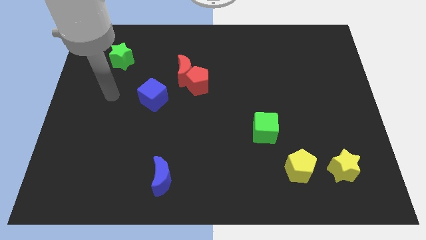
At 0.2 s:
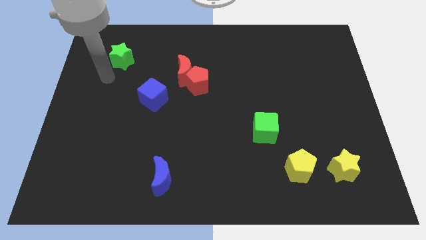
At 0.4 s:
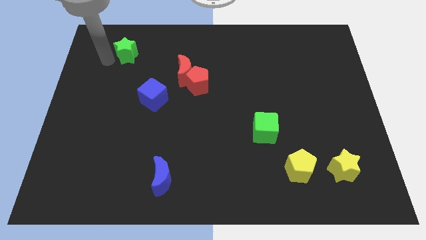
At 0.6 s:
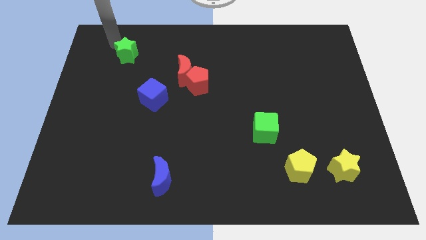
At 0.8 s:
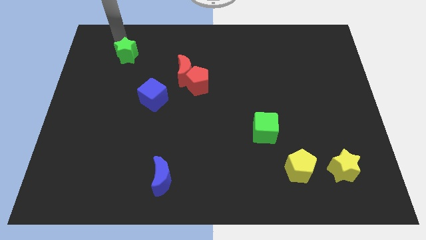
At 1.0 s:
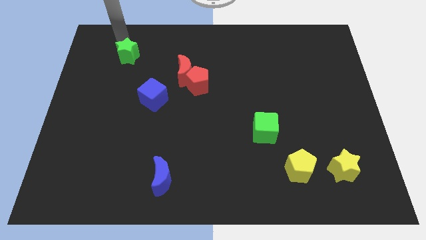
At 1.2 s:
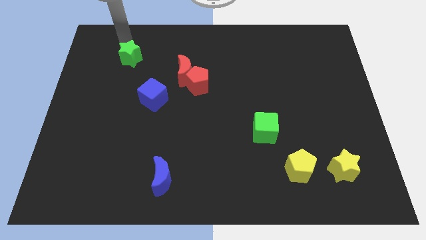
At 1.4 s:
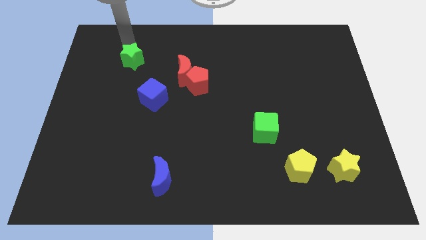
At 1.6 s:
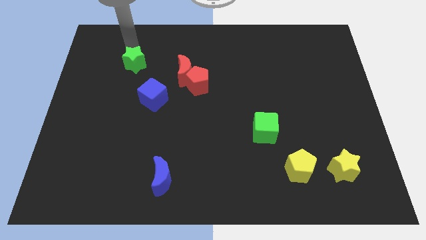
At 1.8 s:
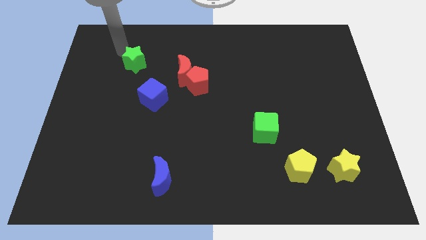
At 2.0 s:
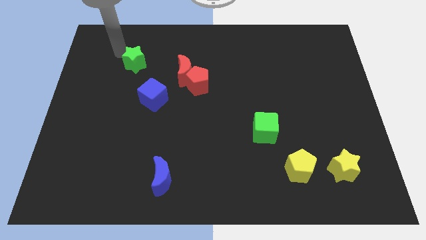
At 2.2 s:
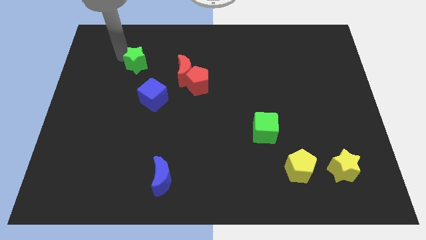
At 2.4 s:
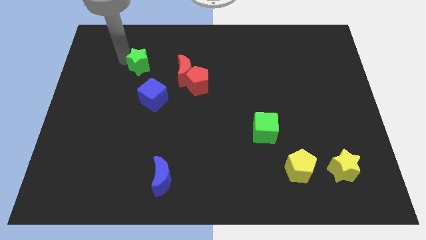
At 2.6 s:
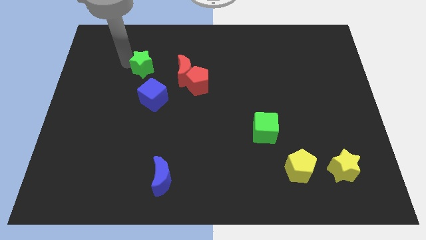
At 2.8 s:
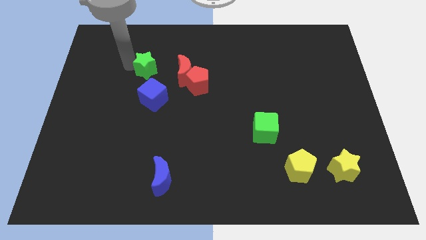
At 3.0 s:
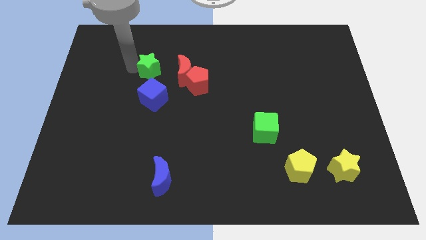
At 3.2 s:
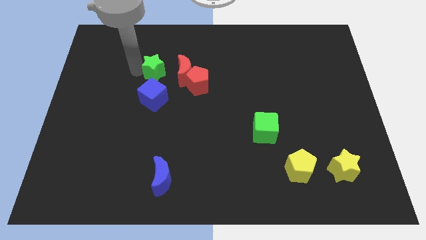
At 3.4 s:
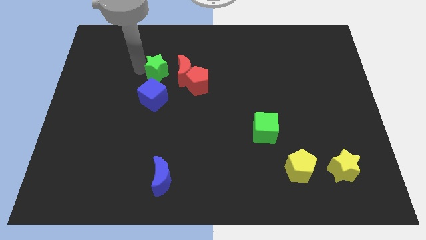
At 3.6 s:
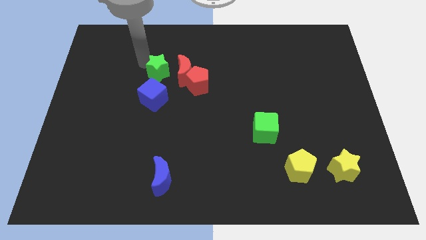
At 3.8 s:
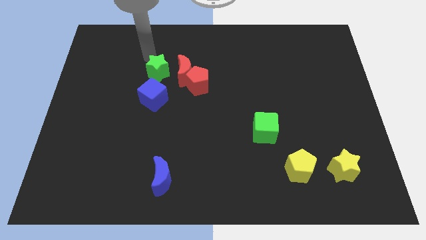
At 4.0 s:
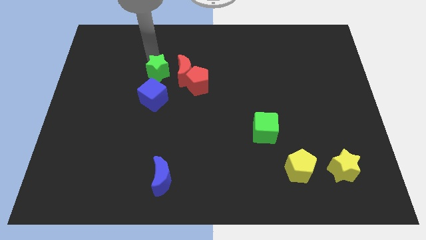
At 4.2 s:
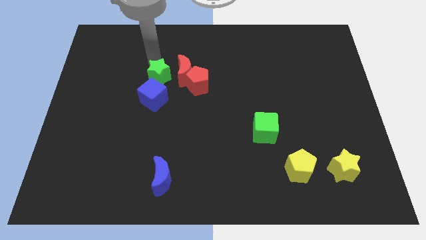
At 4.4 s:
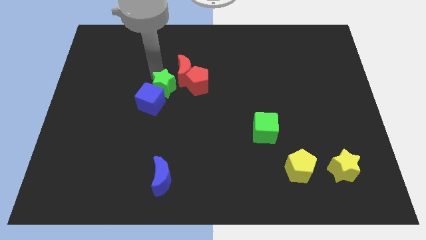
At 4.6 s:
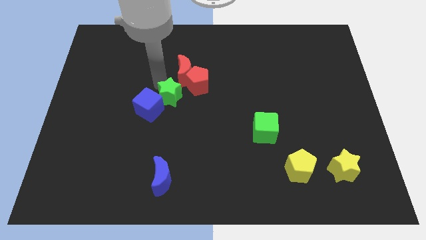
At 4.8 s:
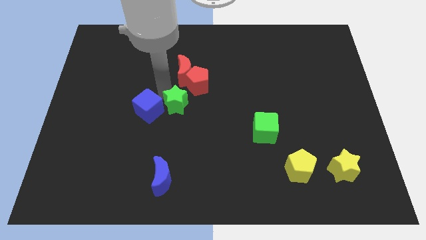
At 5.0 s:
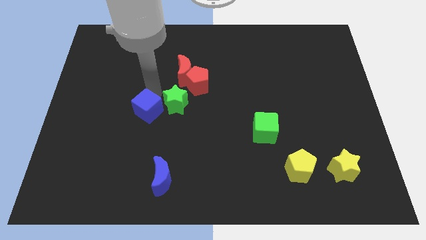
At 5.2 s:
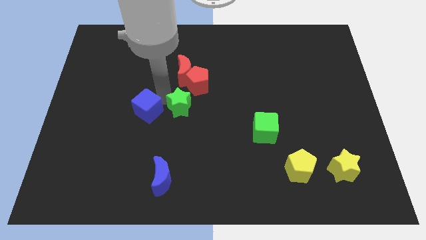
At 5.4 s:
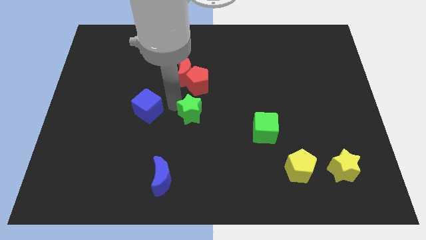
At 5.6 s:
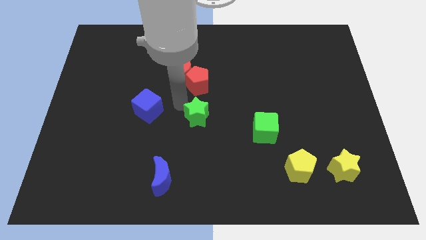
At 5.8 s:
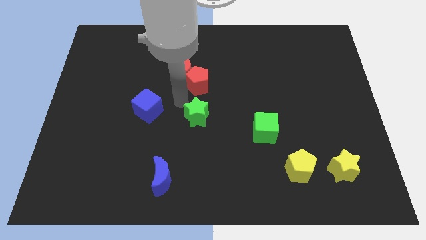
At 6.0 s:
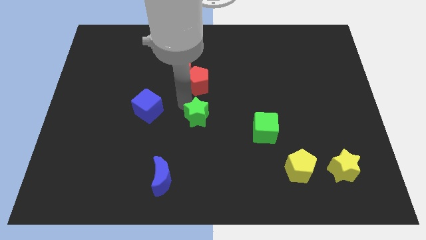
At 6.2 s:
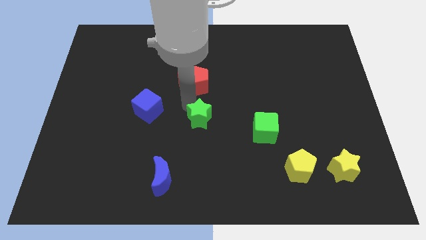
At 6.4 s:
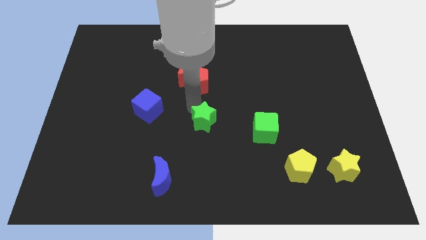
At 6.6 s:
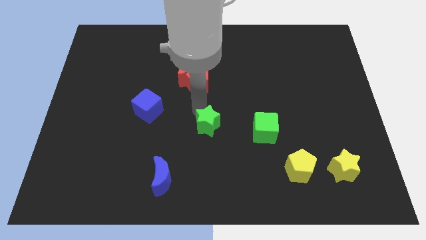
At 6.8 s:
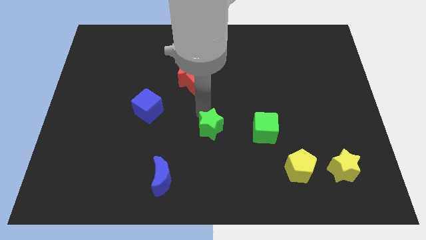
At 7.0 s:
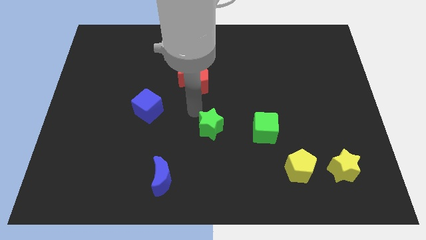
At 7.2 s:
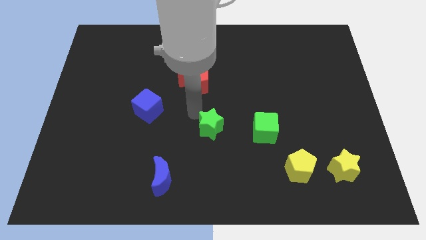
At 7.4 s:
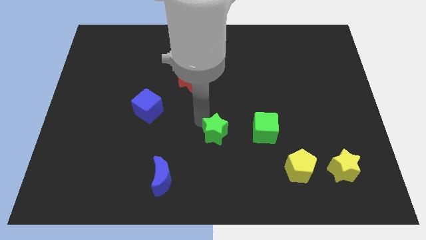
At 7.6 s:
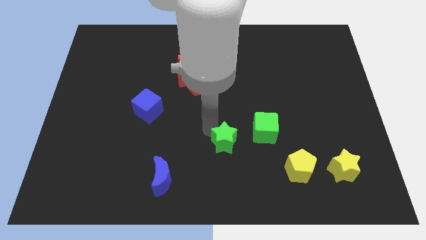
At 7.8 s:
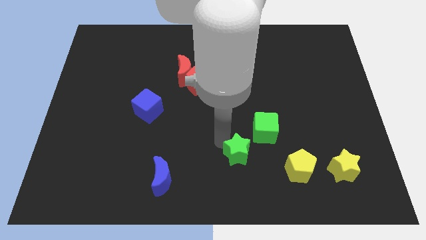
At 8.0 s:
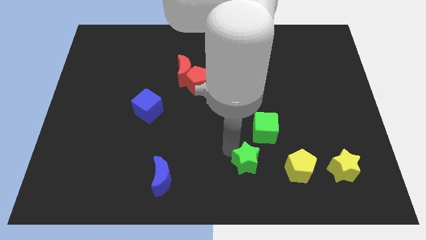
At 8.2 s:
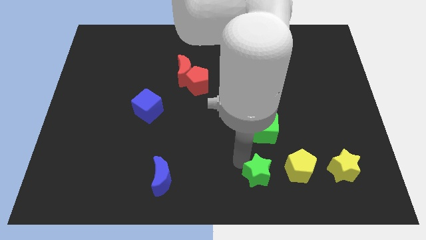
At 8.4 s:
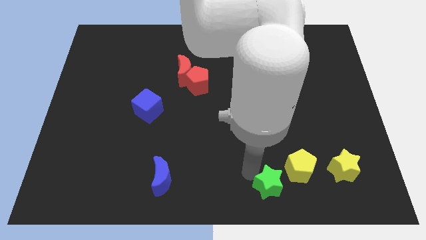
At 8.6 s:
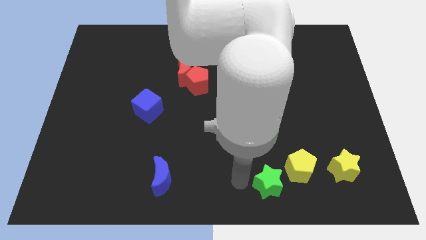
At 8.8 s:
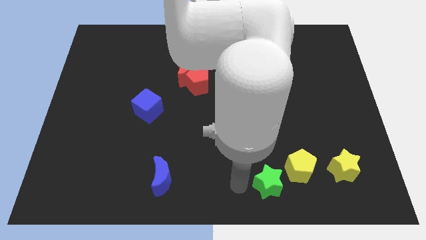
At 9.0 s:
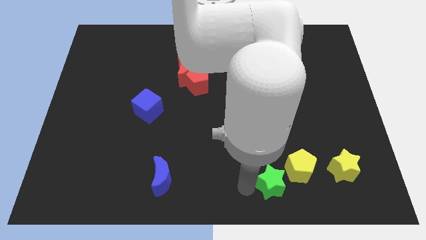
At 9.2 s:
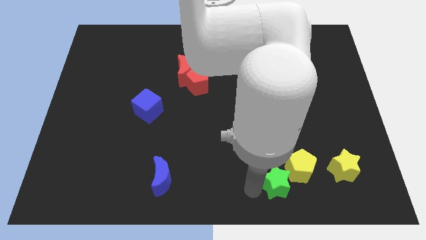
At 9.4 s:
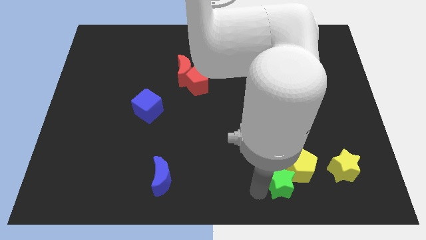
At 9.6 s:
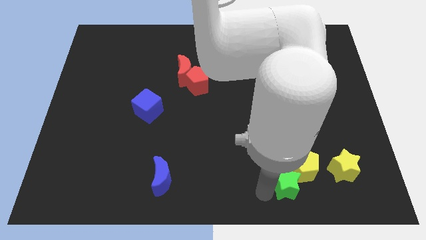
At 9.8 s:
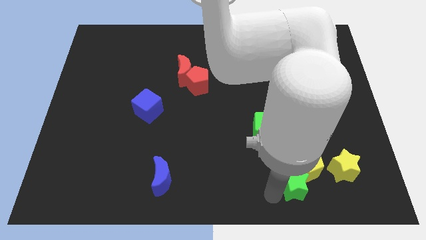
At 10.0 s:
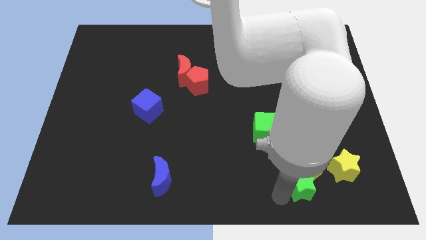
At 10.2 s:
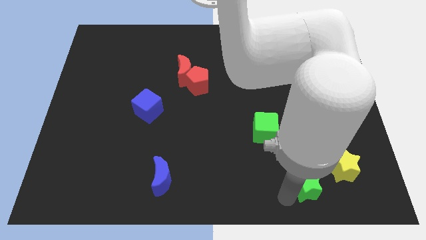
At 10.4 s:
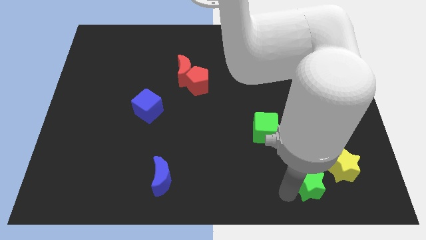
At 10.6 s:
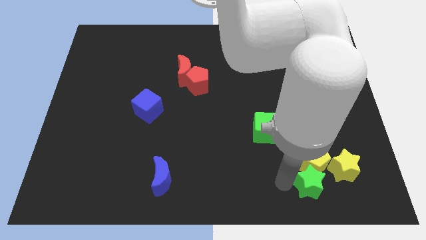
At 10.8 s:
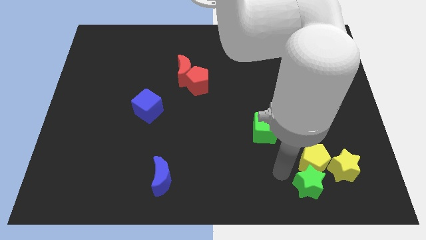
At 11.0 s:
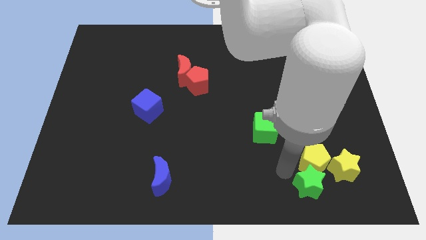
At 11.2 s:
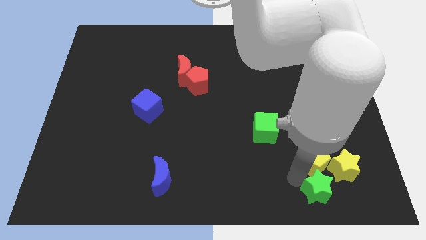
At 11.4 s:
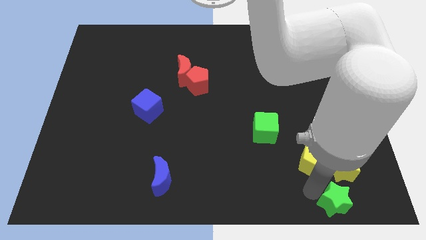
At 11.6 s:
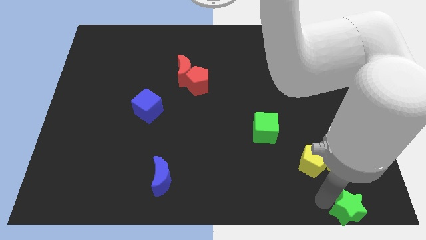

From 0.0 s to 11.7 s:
slide the green star to the lower right corner
